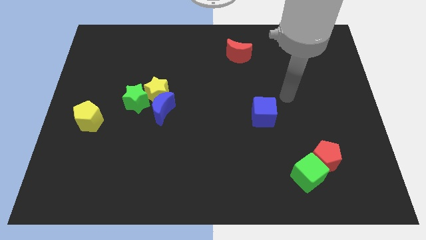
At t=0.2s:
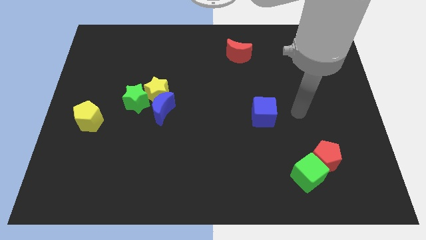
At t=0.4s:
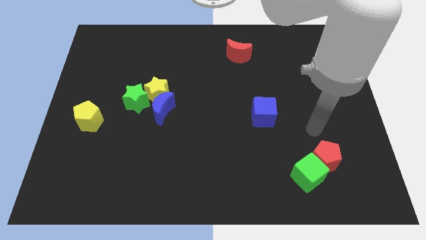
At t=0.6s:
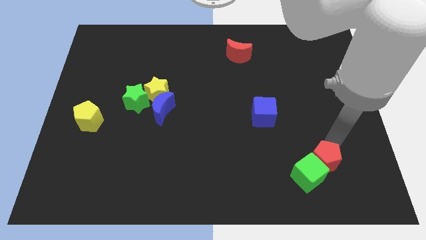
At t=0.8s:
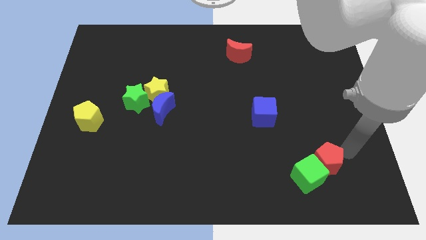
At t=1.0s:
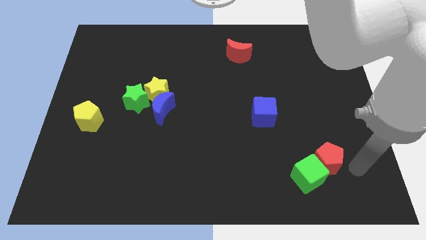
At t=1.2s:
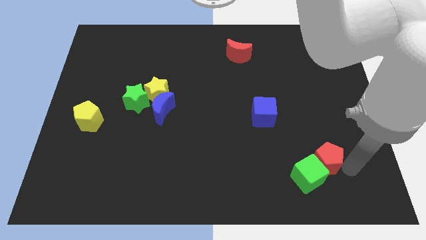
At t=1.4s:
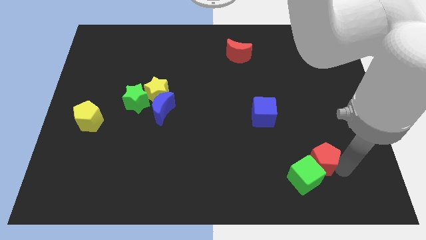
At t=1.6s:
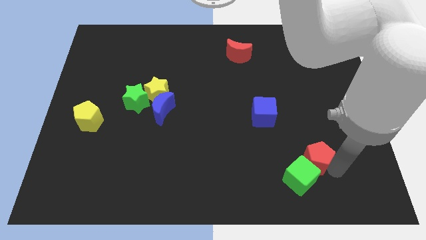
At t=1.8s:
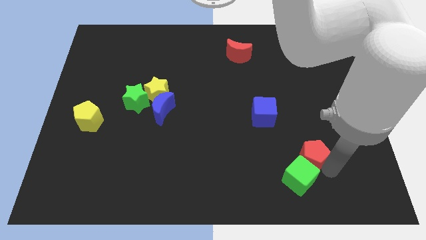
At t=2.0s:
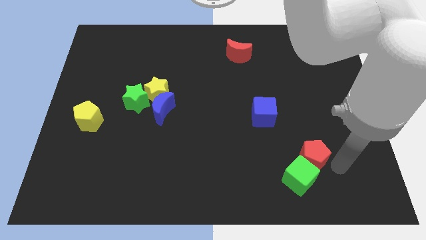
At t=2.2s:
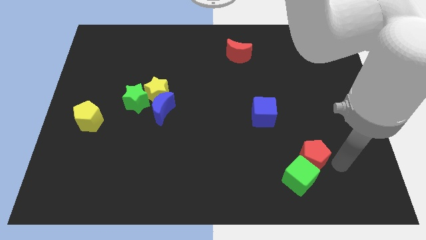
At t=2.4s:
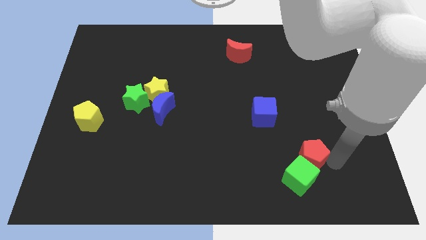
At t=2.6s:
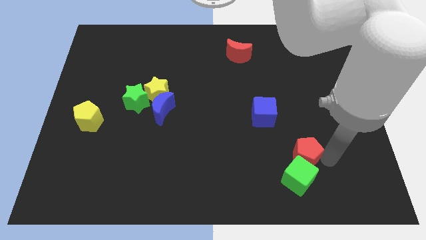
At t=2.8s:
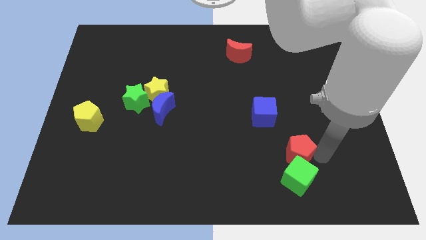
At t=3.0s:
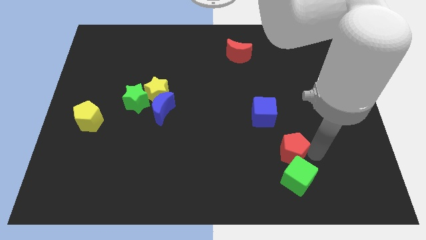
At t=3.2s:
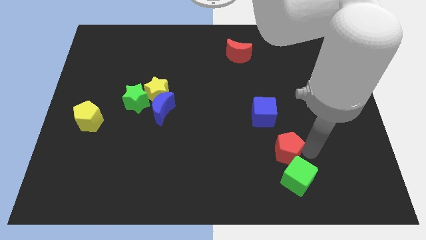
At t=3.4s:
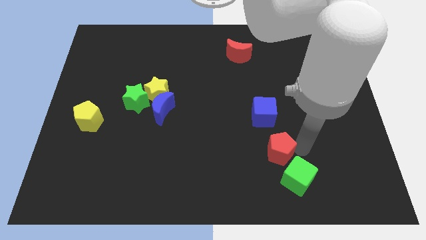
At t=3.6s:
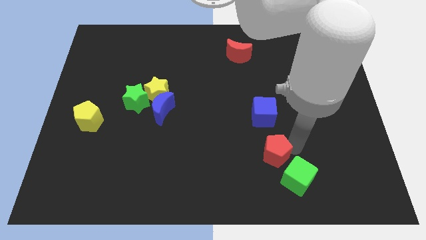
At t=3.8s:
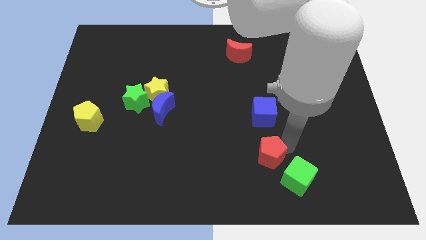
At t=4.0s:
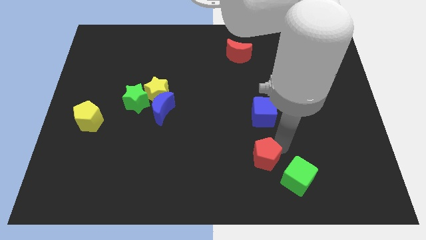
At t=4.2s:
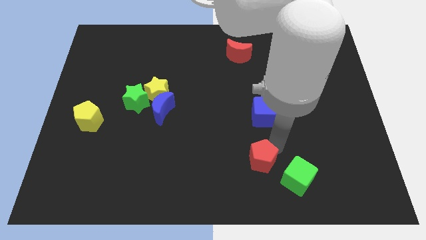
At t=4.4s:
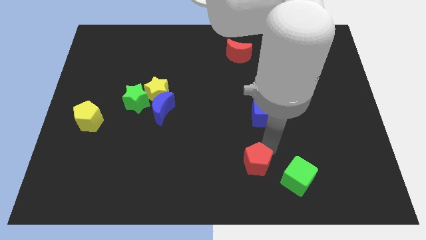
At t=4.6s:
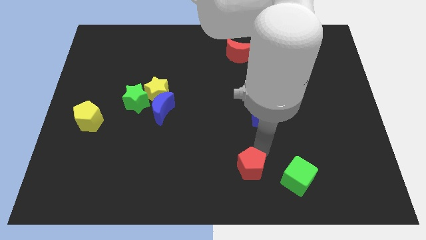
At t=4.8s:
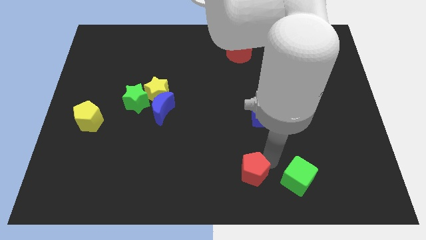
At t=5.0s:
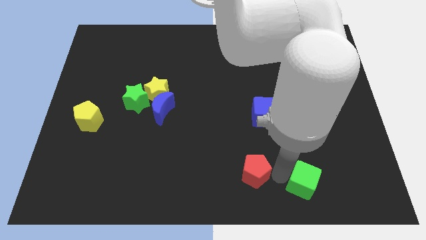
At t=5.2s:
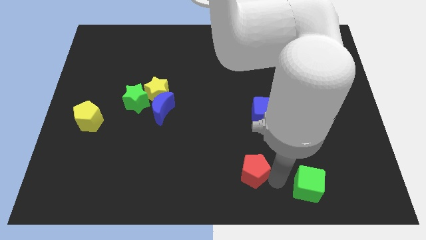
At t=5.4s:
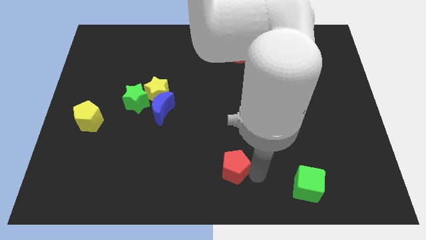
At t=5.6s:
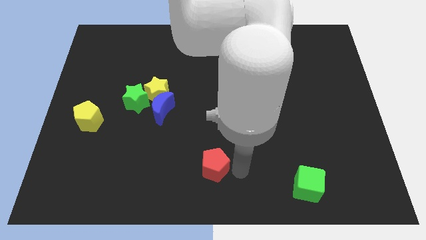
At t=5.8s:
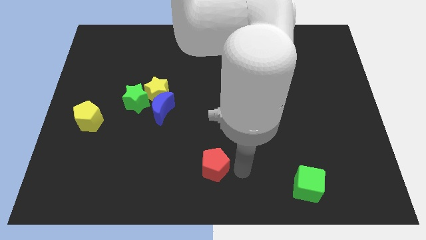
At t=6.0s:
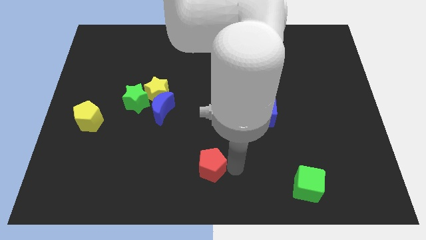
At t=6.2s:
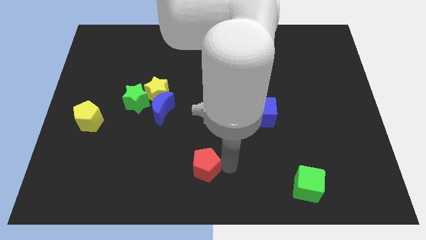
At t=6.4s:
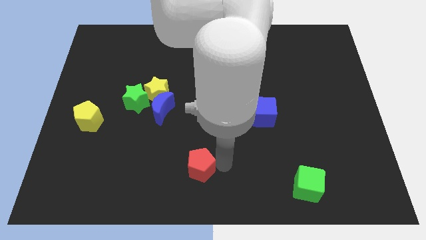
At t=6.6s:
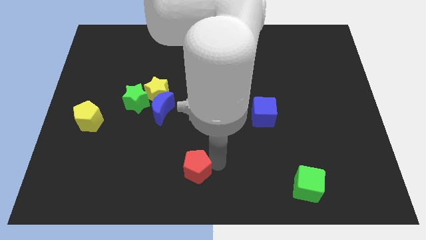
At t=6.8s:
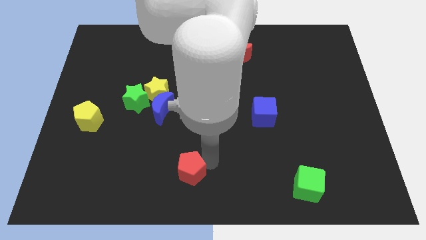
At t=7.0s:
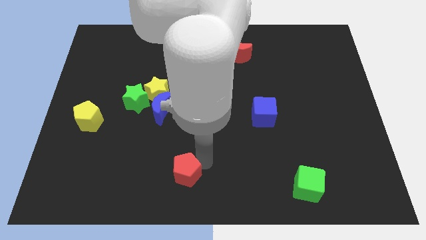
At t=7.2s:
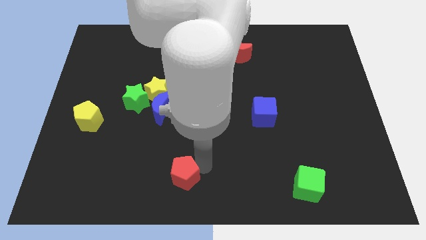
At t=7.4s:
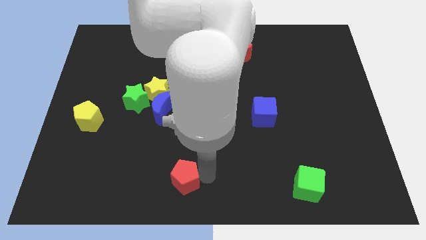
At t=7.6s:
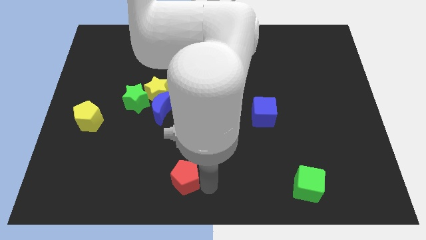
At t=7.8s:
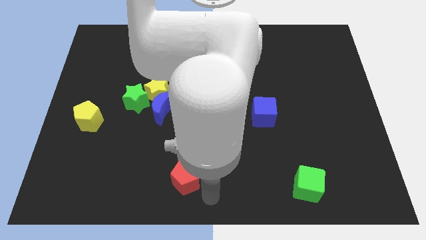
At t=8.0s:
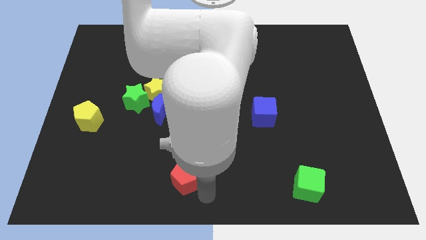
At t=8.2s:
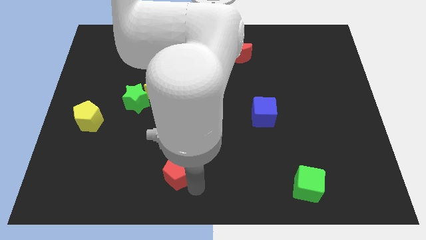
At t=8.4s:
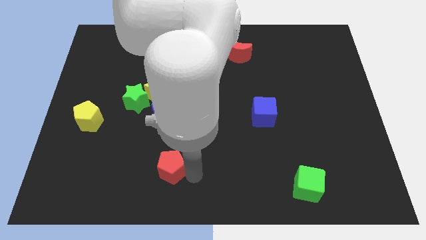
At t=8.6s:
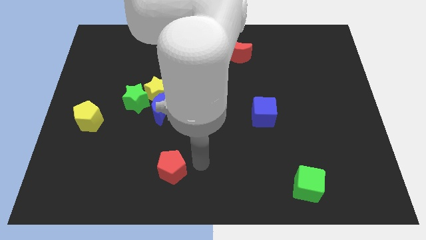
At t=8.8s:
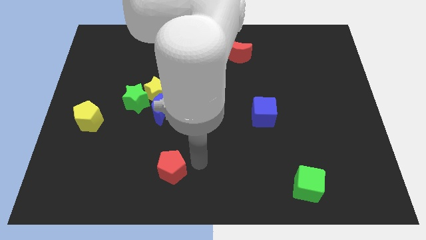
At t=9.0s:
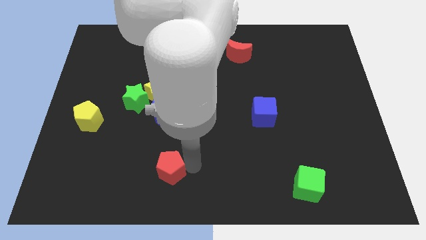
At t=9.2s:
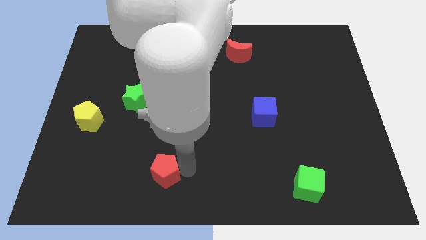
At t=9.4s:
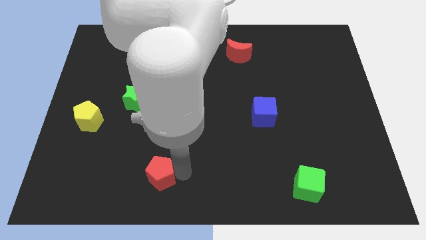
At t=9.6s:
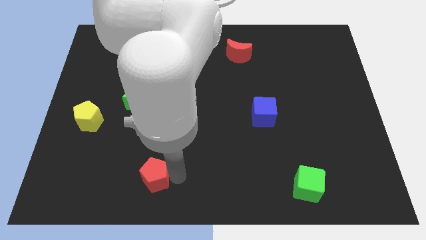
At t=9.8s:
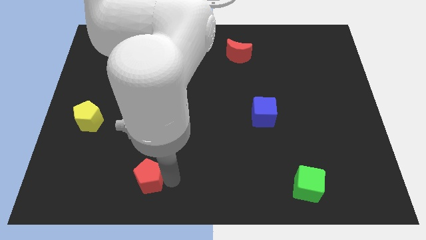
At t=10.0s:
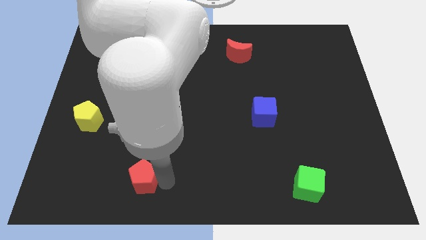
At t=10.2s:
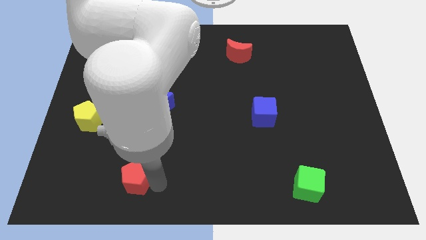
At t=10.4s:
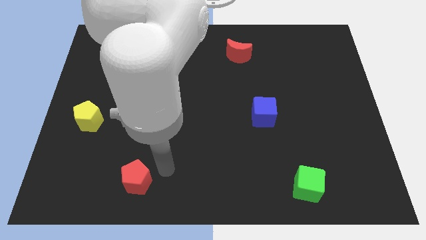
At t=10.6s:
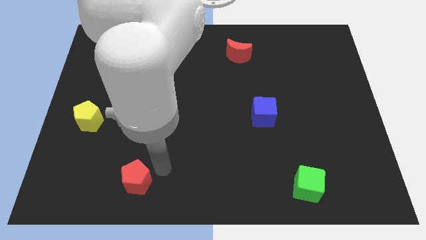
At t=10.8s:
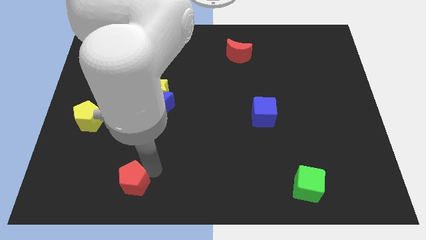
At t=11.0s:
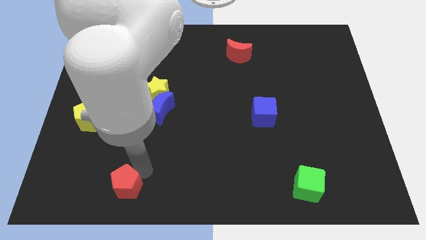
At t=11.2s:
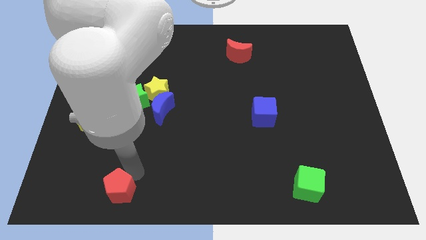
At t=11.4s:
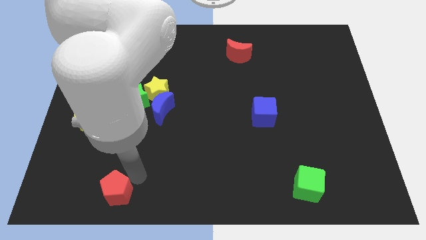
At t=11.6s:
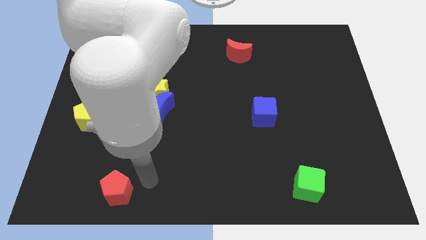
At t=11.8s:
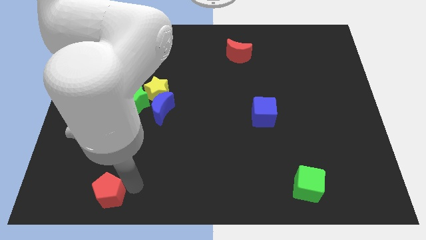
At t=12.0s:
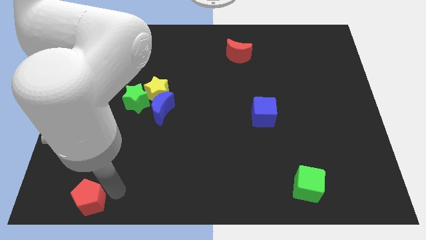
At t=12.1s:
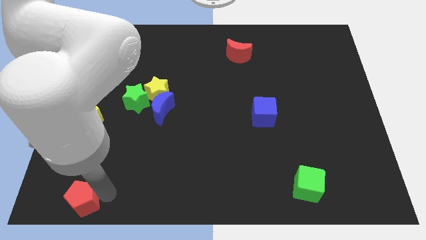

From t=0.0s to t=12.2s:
move the red pentagon to the bottom left corner

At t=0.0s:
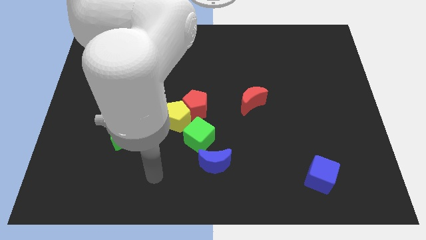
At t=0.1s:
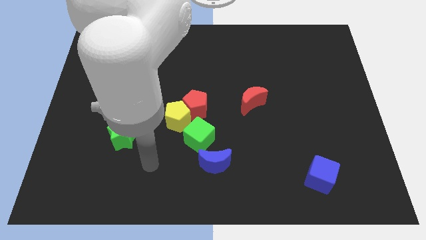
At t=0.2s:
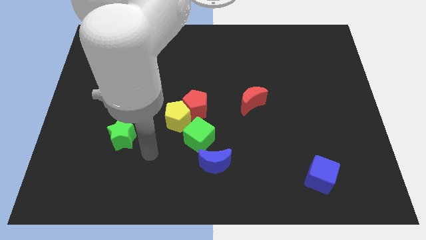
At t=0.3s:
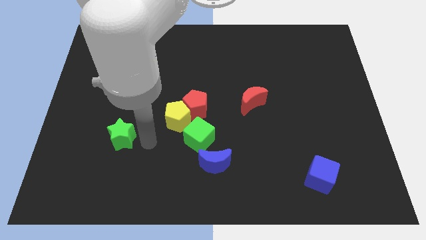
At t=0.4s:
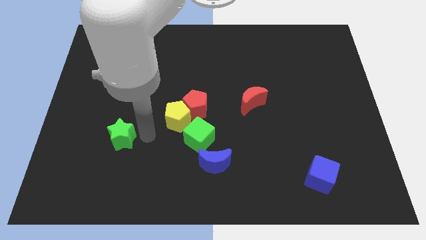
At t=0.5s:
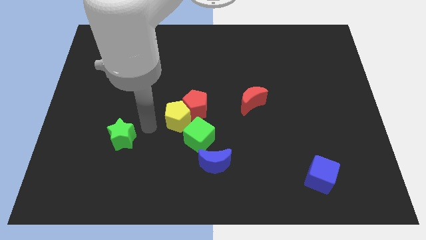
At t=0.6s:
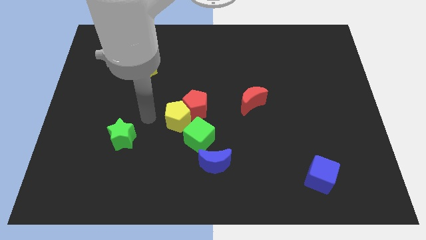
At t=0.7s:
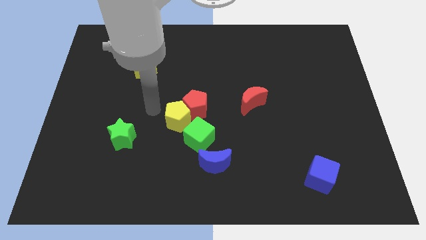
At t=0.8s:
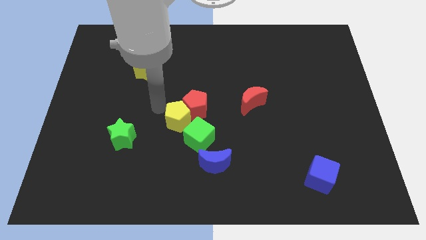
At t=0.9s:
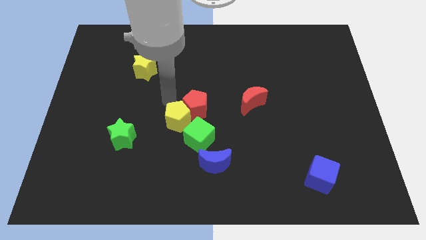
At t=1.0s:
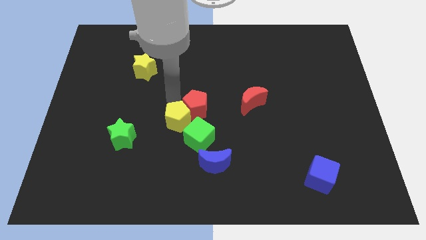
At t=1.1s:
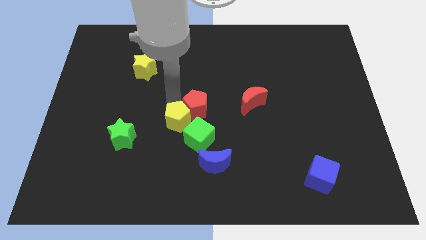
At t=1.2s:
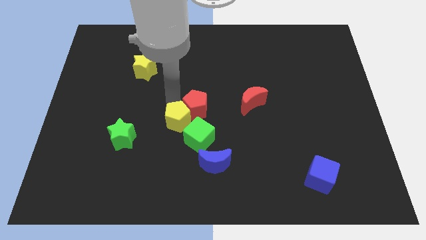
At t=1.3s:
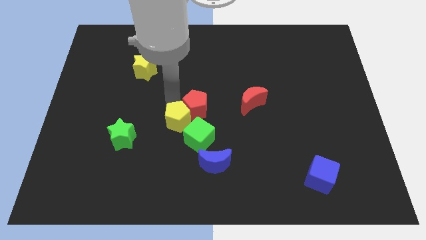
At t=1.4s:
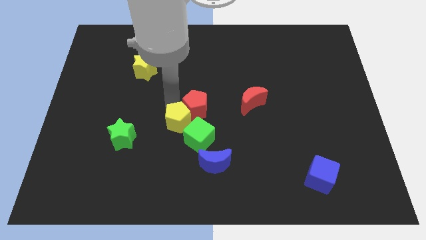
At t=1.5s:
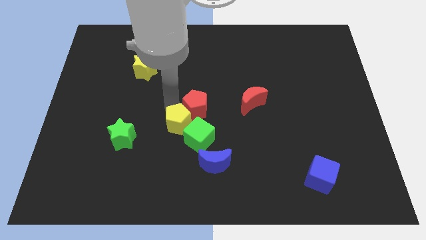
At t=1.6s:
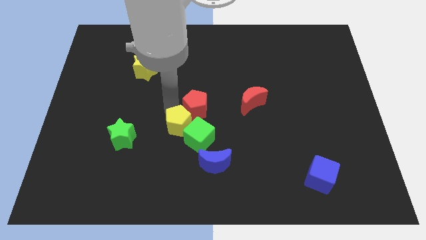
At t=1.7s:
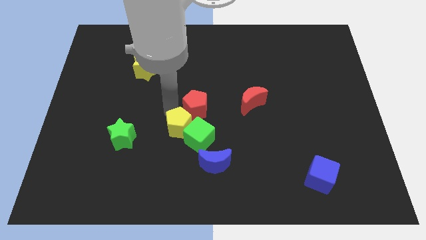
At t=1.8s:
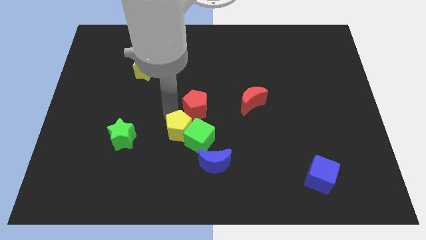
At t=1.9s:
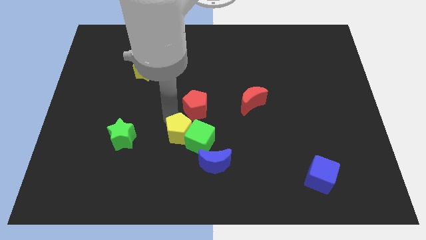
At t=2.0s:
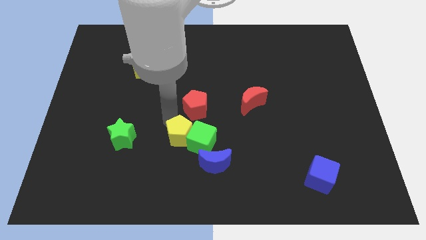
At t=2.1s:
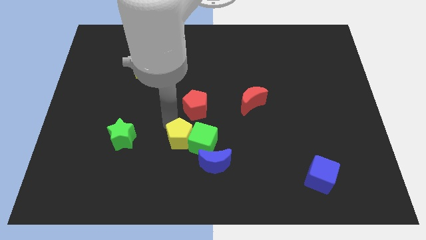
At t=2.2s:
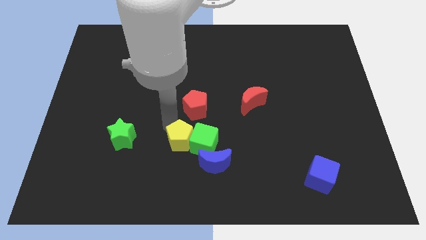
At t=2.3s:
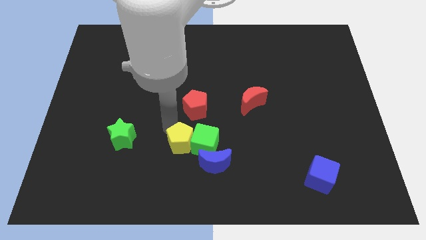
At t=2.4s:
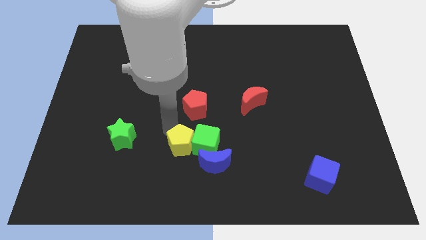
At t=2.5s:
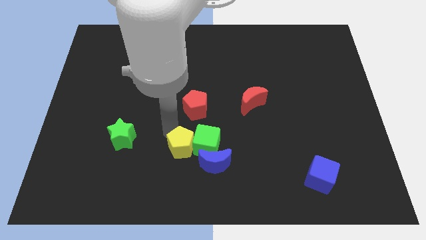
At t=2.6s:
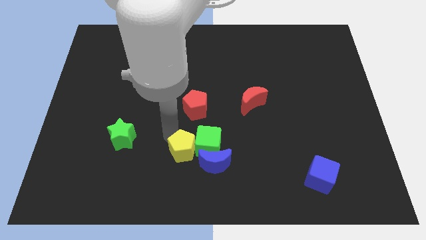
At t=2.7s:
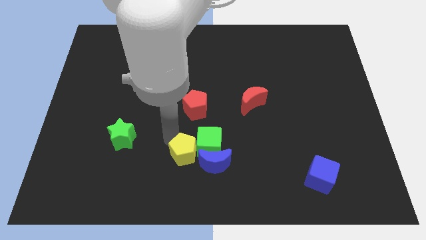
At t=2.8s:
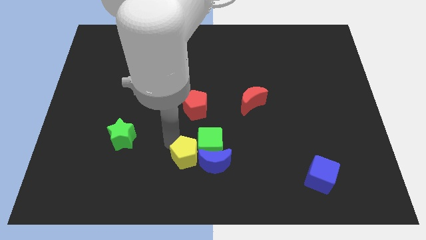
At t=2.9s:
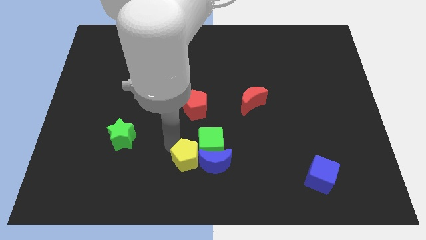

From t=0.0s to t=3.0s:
move the yellow pentagon to the bottom
